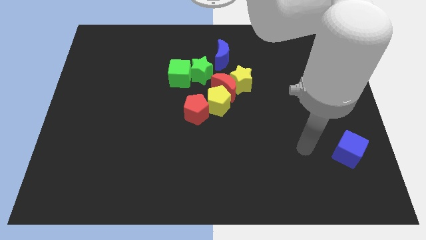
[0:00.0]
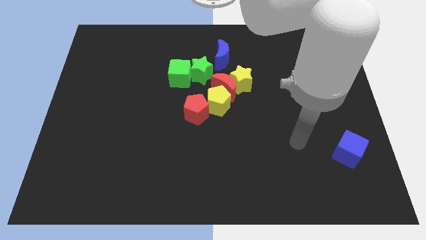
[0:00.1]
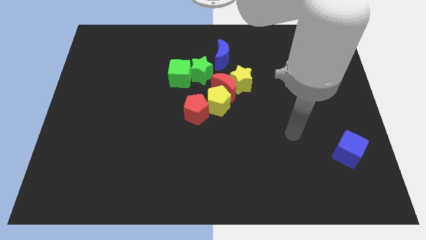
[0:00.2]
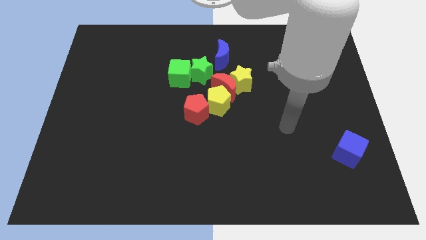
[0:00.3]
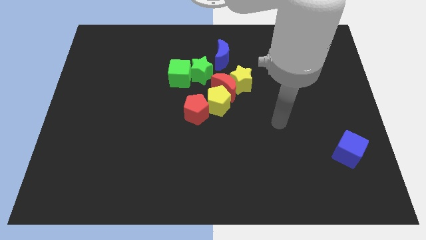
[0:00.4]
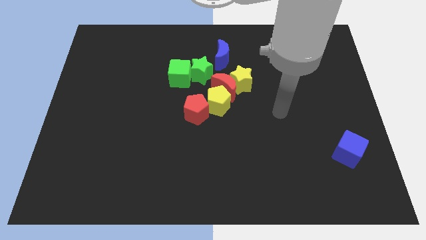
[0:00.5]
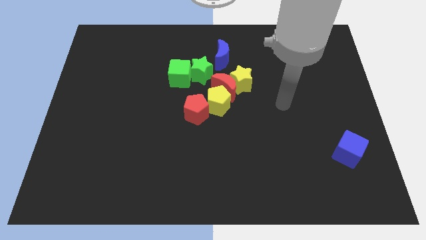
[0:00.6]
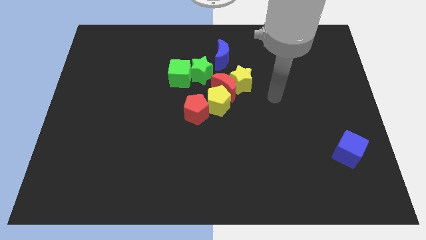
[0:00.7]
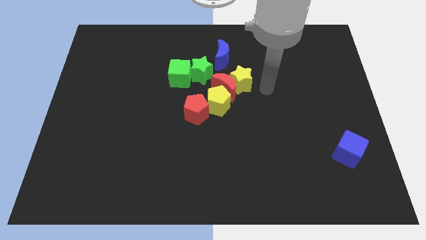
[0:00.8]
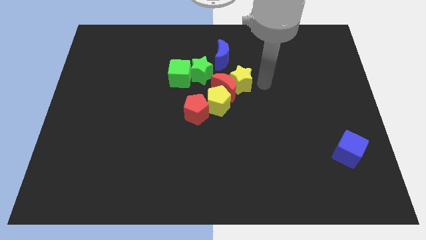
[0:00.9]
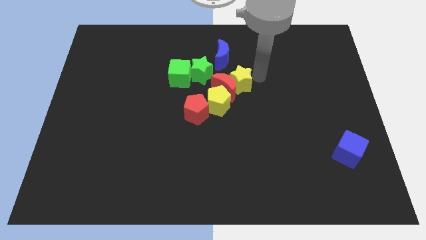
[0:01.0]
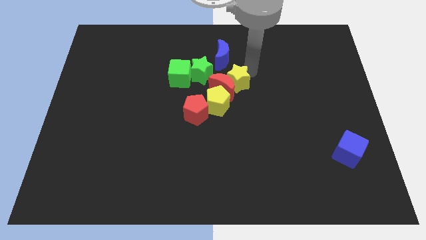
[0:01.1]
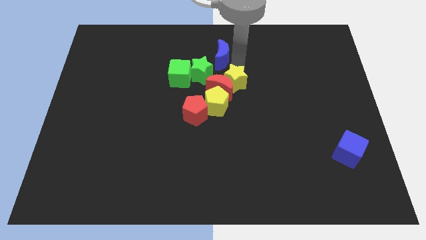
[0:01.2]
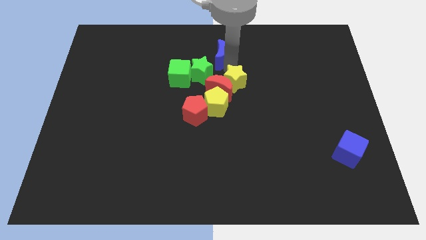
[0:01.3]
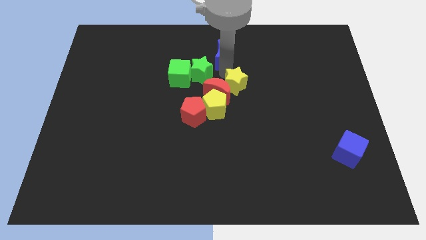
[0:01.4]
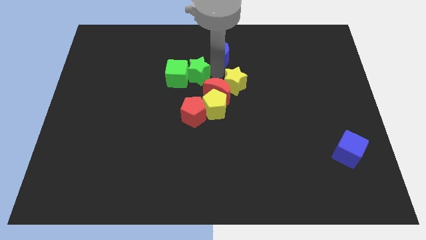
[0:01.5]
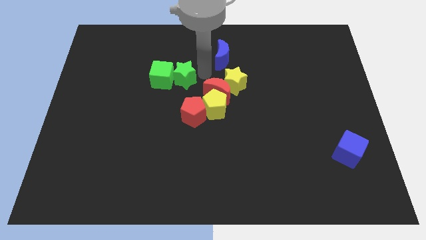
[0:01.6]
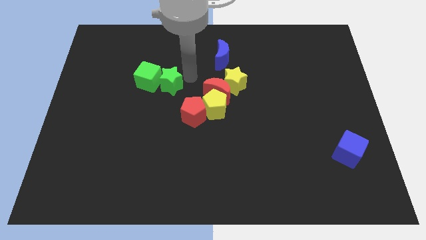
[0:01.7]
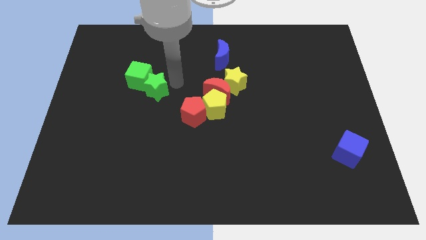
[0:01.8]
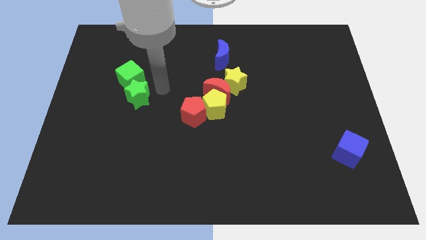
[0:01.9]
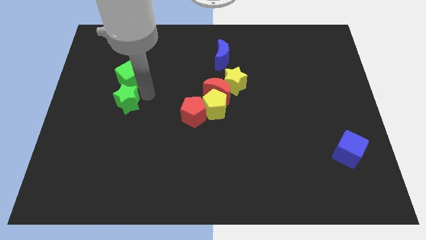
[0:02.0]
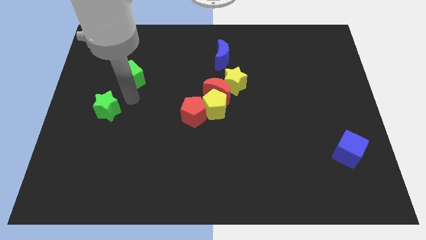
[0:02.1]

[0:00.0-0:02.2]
move the green cube away from the green star

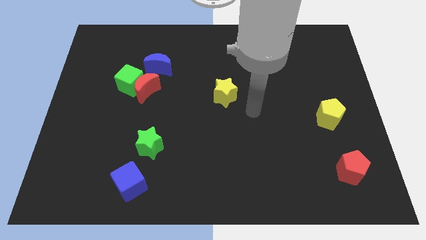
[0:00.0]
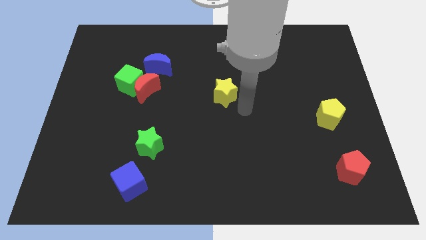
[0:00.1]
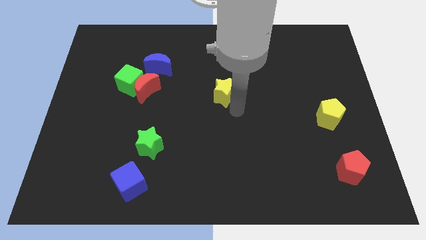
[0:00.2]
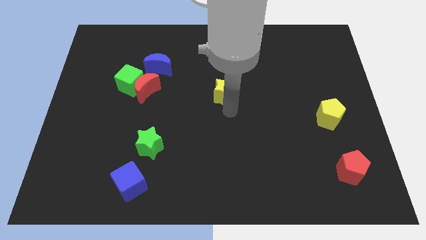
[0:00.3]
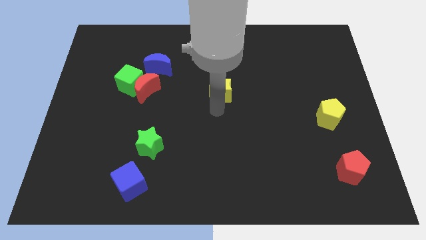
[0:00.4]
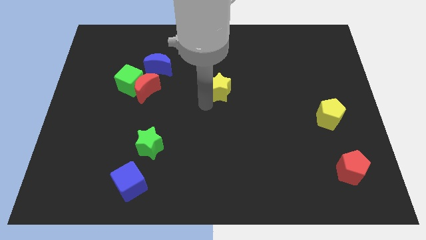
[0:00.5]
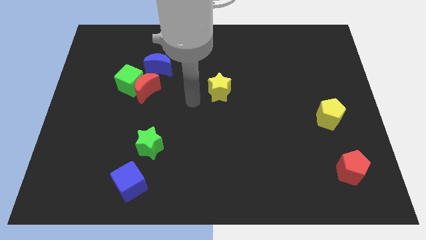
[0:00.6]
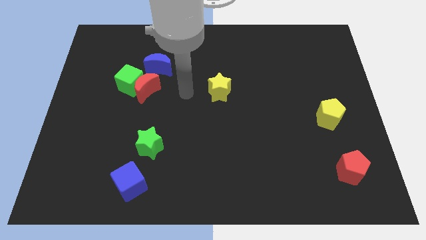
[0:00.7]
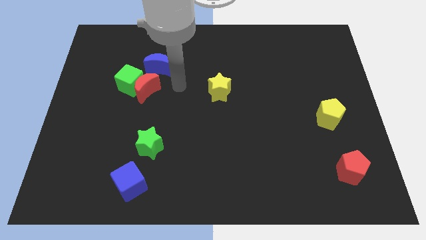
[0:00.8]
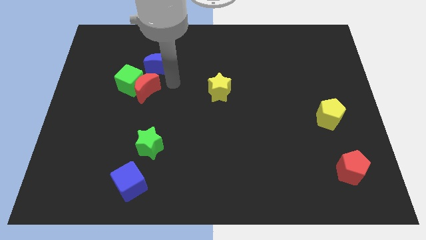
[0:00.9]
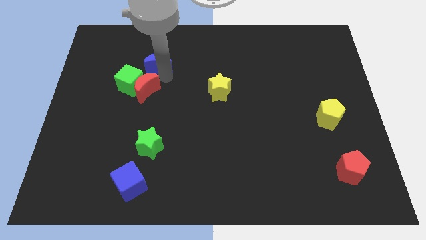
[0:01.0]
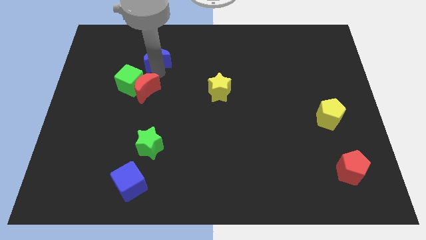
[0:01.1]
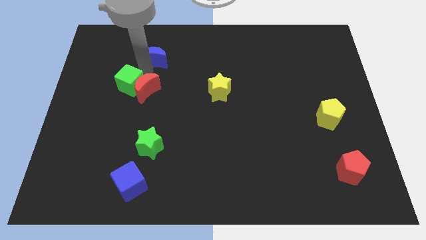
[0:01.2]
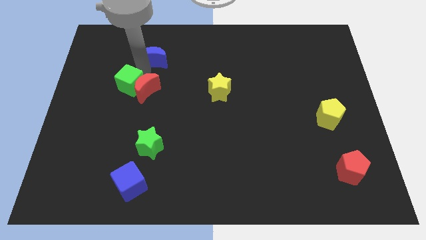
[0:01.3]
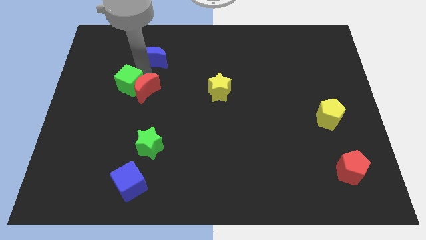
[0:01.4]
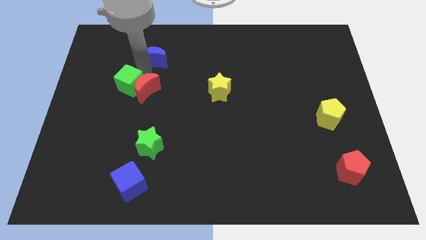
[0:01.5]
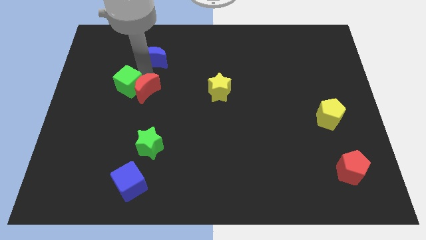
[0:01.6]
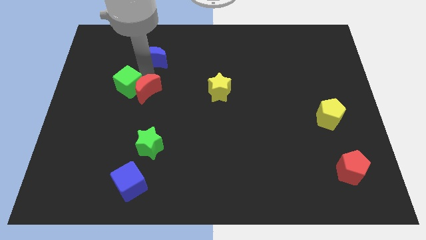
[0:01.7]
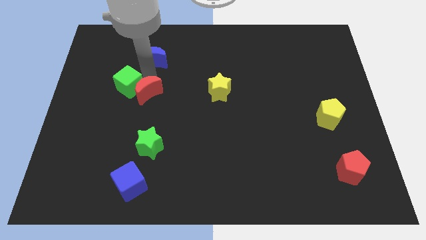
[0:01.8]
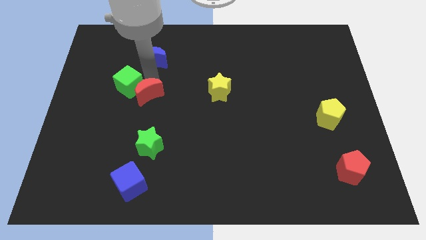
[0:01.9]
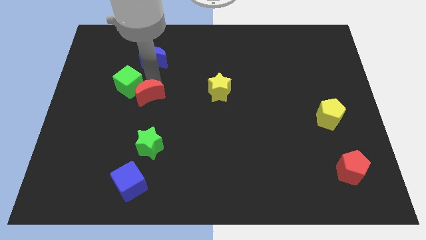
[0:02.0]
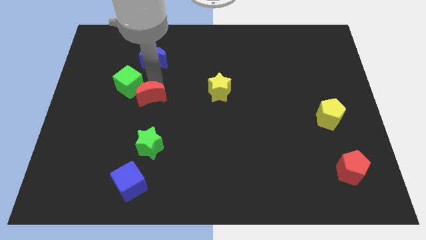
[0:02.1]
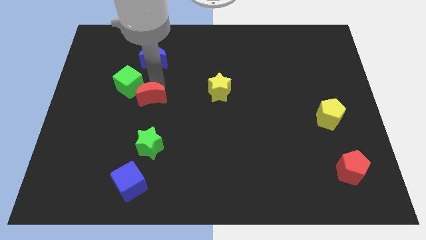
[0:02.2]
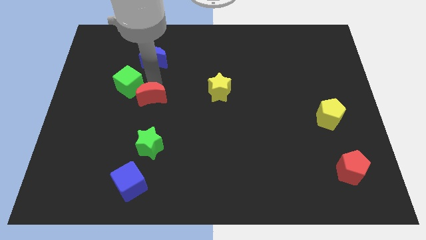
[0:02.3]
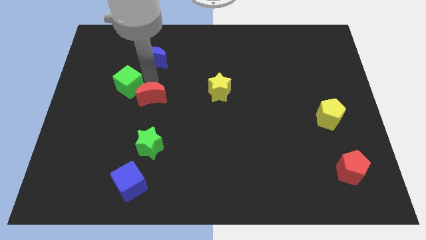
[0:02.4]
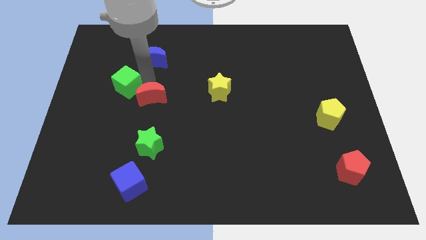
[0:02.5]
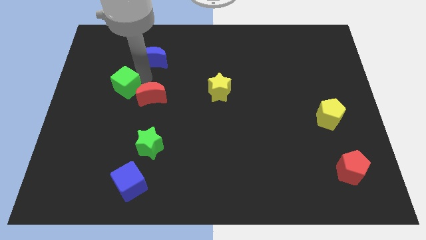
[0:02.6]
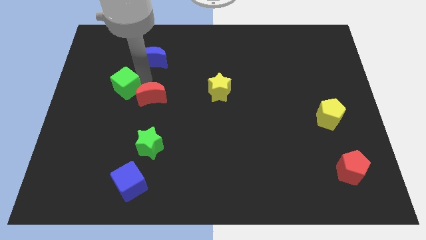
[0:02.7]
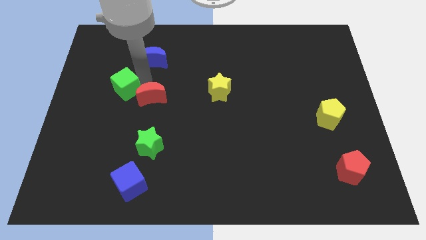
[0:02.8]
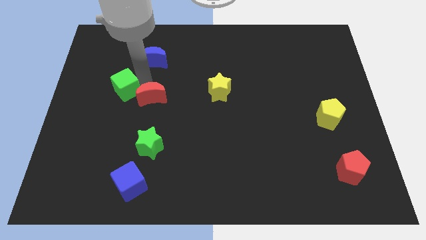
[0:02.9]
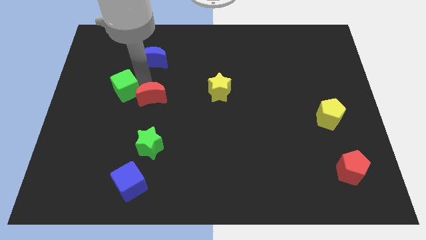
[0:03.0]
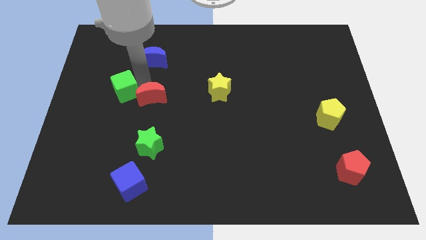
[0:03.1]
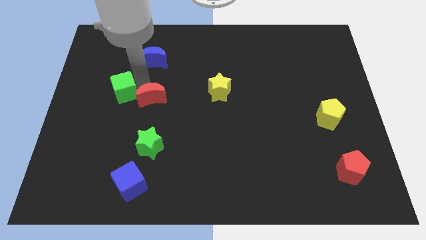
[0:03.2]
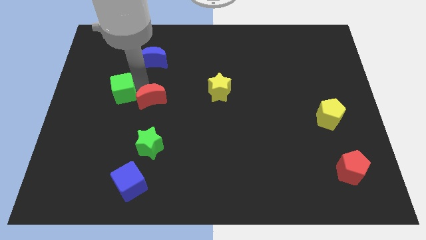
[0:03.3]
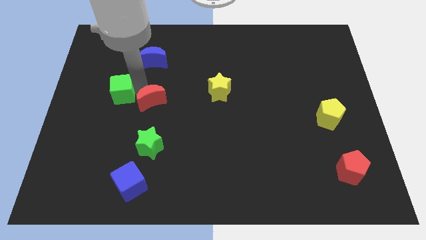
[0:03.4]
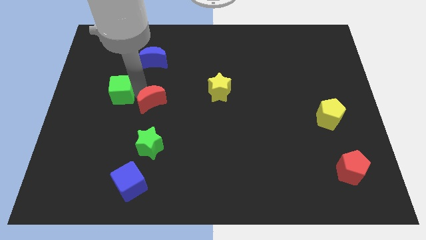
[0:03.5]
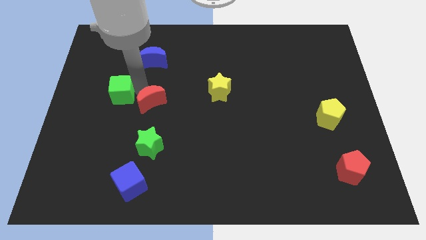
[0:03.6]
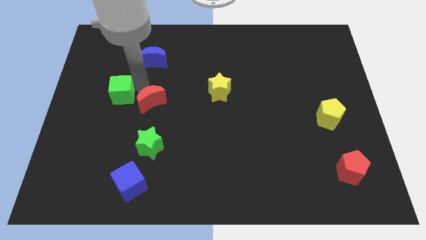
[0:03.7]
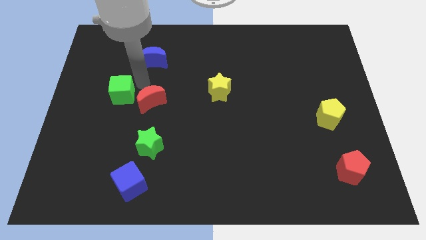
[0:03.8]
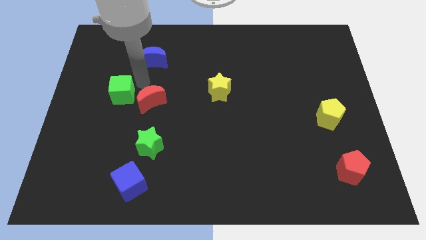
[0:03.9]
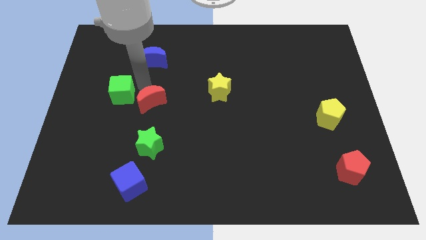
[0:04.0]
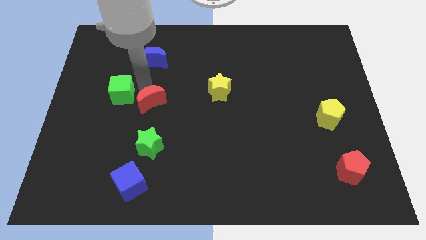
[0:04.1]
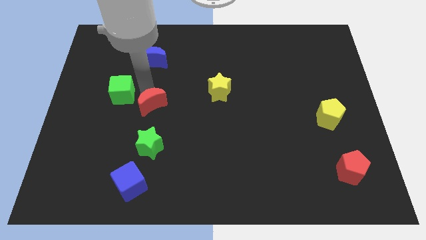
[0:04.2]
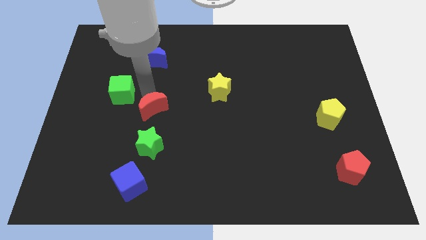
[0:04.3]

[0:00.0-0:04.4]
move the red moon away from the green cube and blue moon

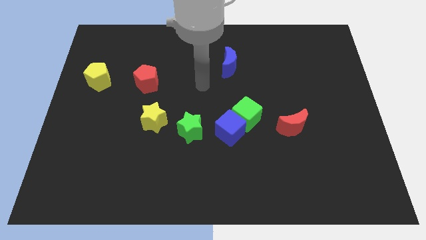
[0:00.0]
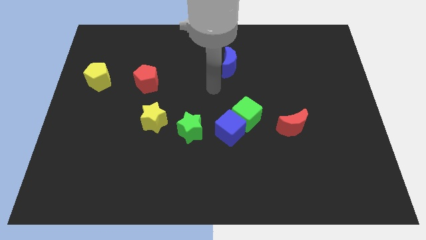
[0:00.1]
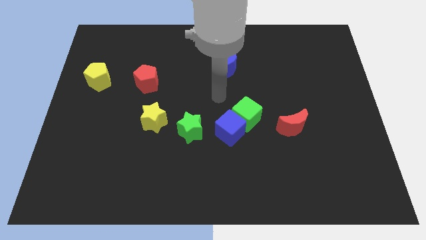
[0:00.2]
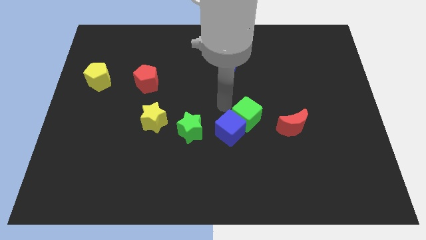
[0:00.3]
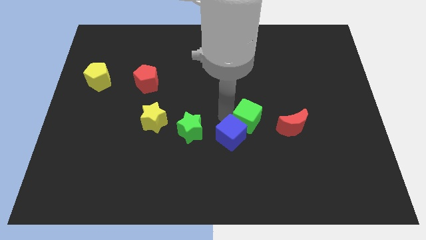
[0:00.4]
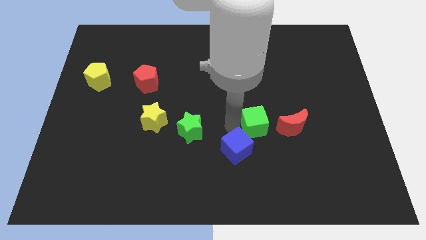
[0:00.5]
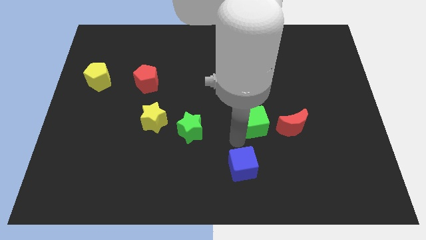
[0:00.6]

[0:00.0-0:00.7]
move the green cube away from the blue cube

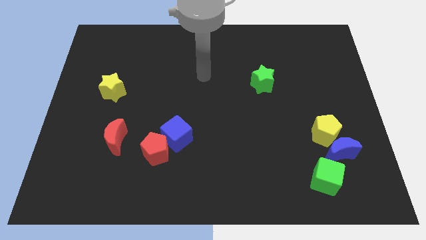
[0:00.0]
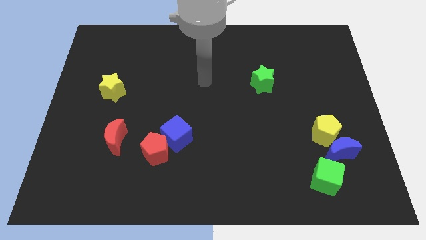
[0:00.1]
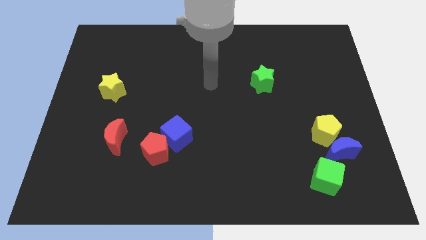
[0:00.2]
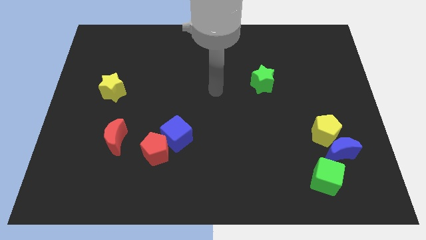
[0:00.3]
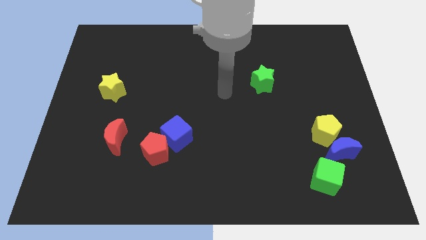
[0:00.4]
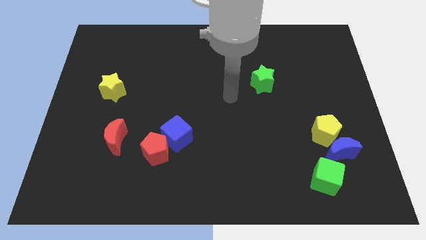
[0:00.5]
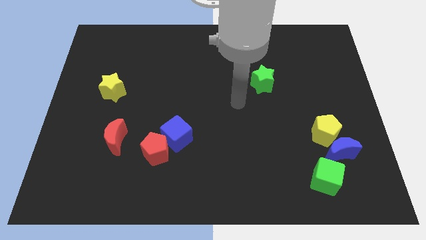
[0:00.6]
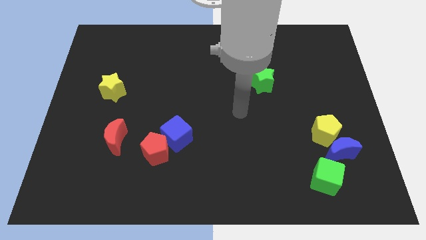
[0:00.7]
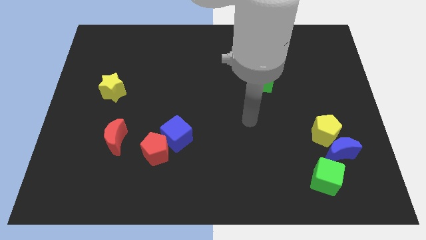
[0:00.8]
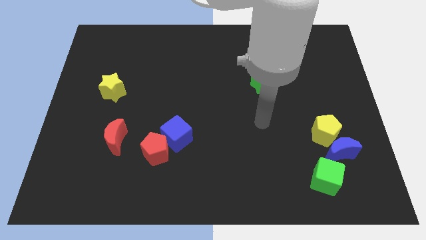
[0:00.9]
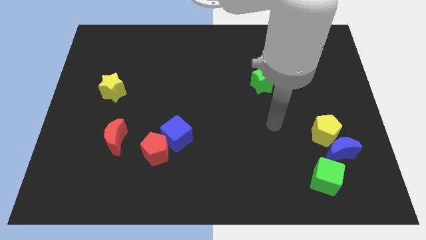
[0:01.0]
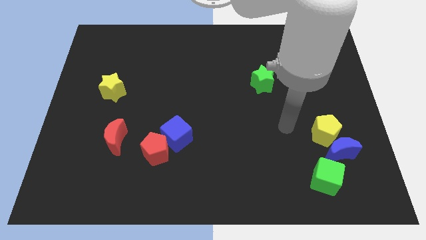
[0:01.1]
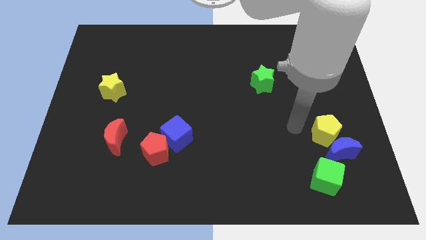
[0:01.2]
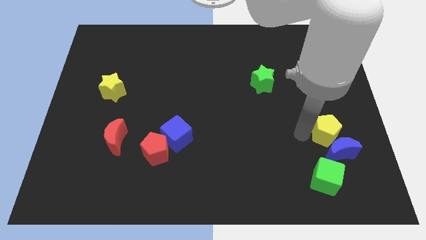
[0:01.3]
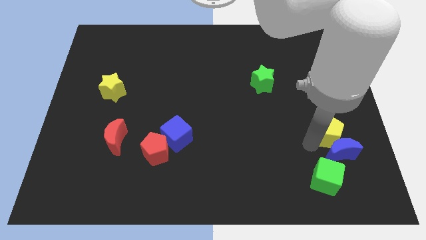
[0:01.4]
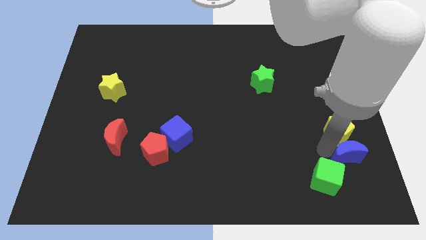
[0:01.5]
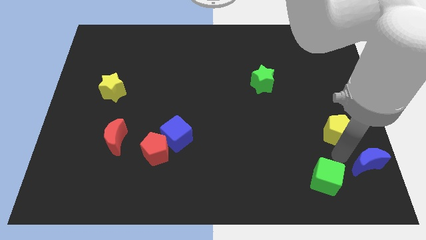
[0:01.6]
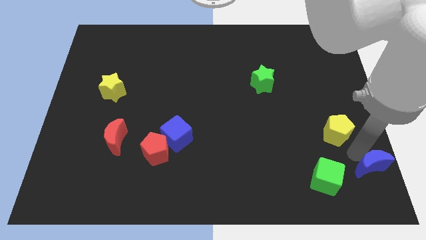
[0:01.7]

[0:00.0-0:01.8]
separate the yellow pentagon from the blue moon

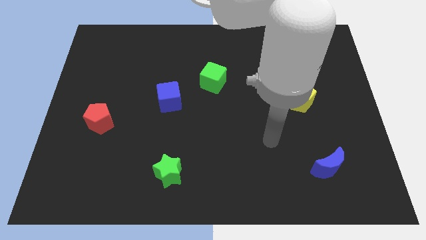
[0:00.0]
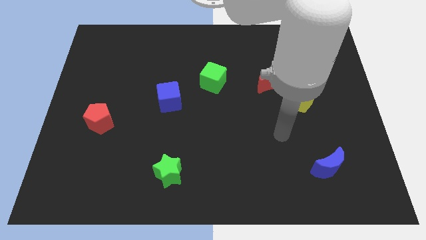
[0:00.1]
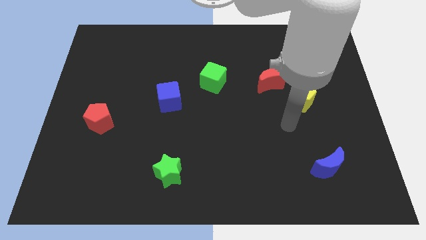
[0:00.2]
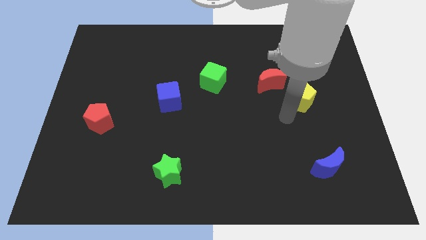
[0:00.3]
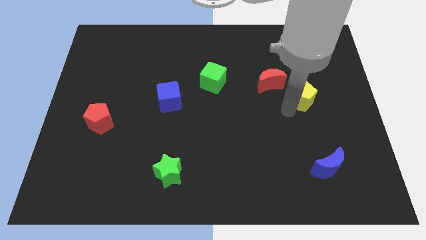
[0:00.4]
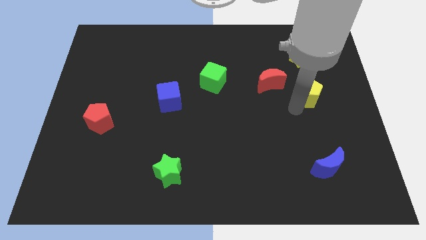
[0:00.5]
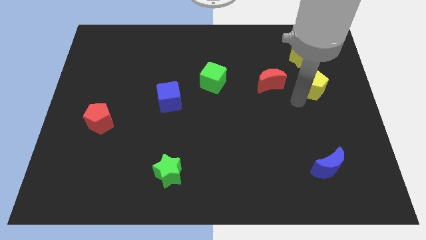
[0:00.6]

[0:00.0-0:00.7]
move the red moon away from the yellow pentagon
